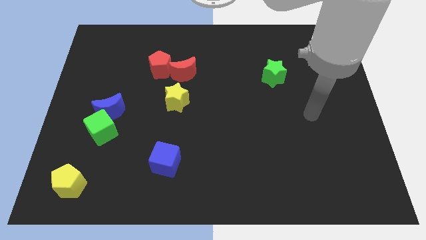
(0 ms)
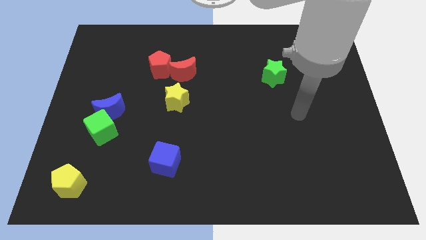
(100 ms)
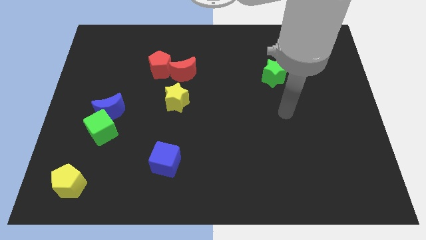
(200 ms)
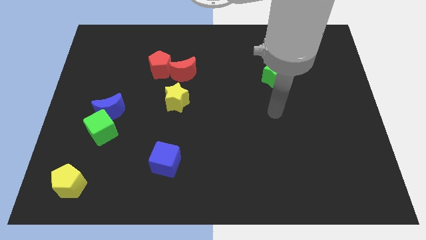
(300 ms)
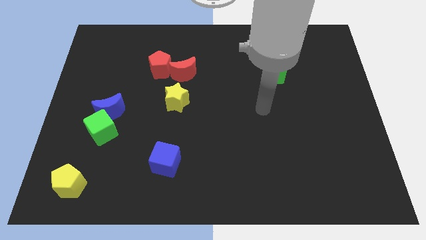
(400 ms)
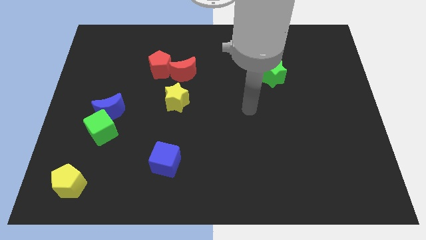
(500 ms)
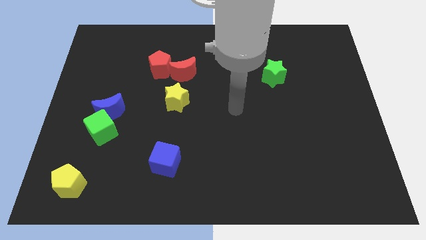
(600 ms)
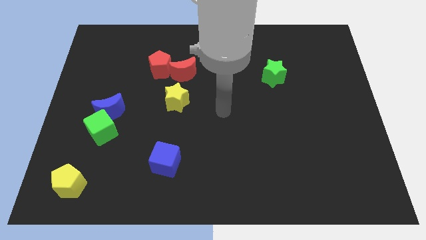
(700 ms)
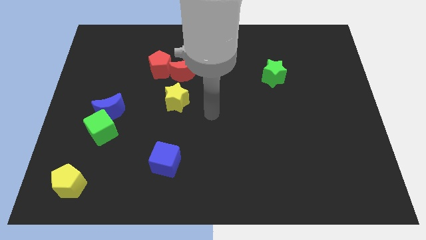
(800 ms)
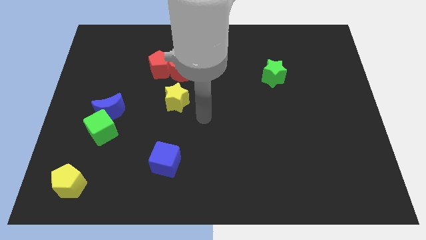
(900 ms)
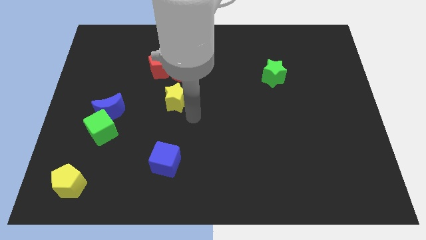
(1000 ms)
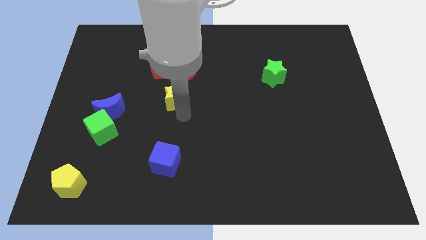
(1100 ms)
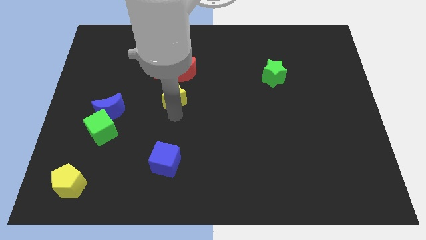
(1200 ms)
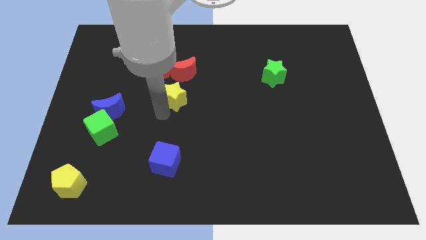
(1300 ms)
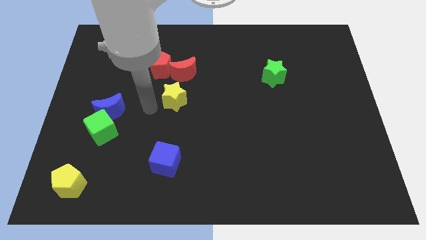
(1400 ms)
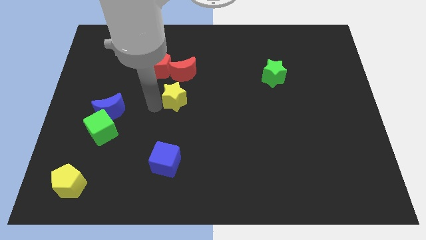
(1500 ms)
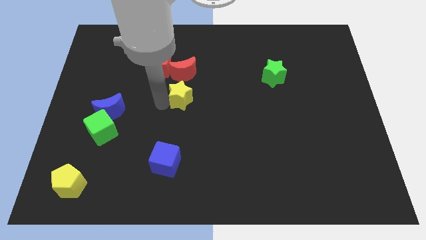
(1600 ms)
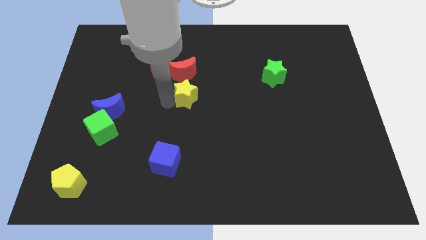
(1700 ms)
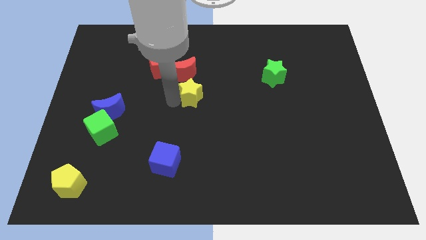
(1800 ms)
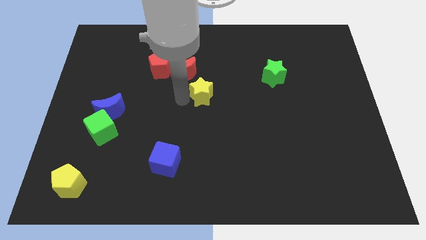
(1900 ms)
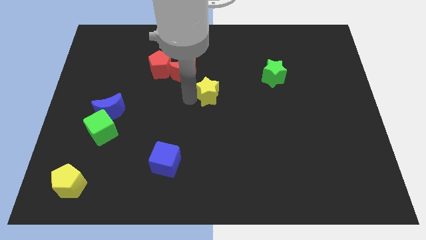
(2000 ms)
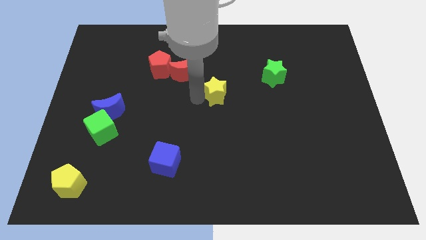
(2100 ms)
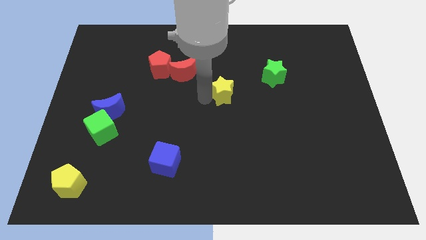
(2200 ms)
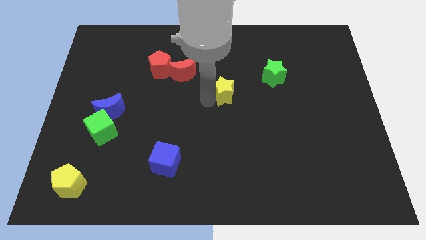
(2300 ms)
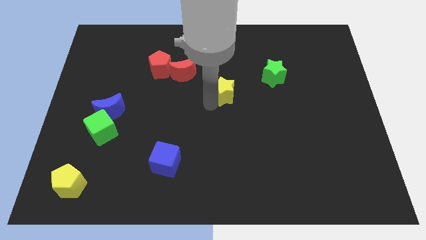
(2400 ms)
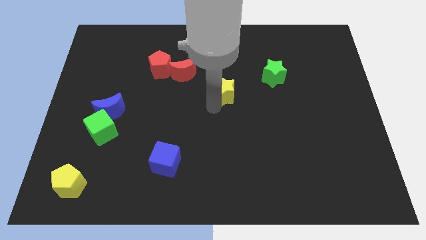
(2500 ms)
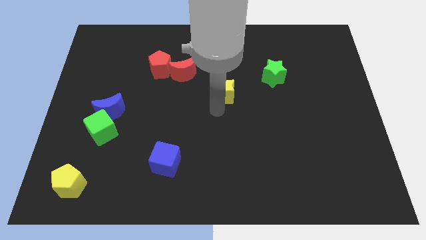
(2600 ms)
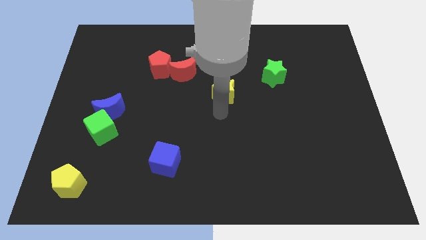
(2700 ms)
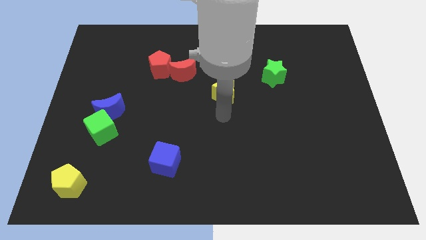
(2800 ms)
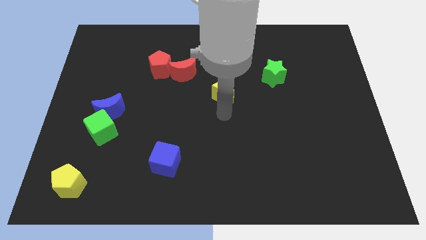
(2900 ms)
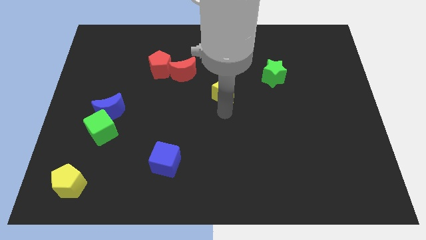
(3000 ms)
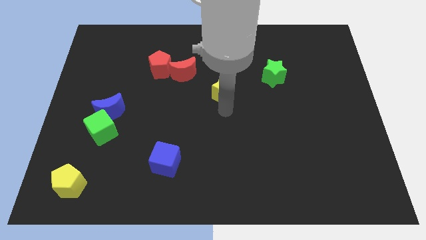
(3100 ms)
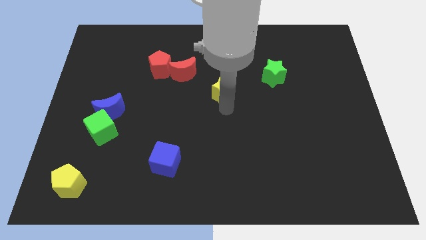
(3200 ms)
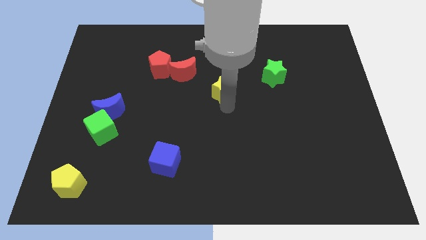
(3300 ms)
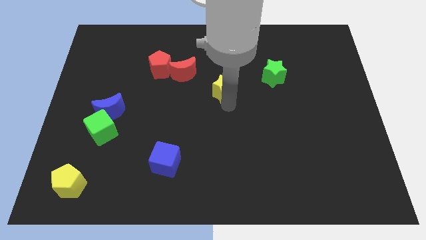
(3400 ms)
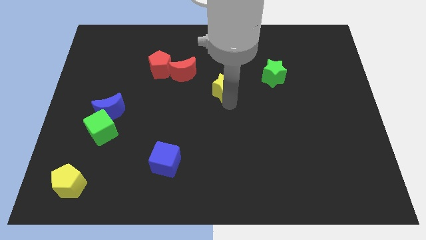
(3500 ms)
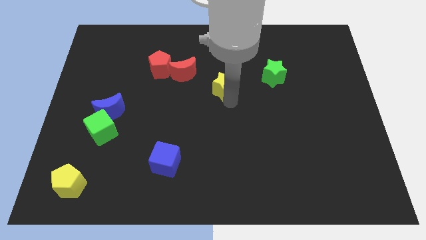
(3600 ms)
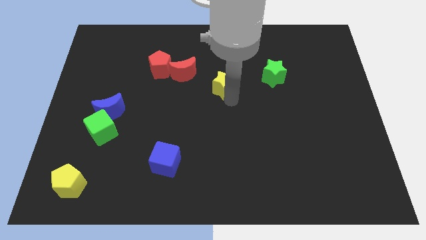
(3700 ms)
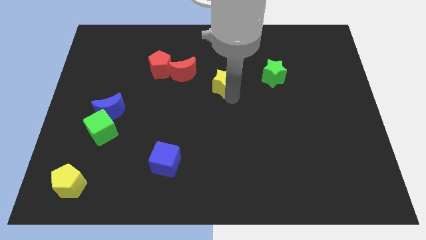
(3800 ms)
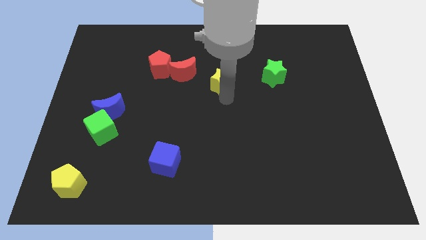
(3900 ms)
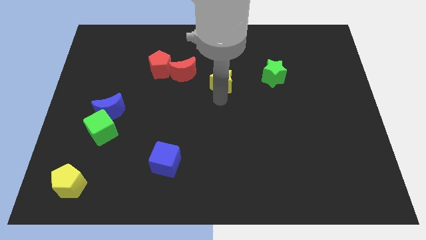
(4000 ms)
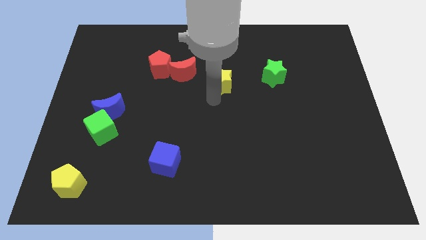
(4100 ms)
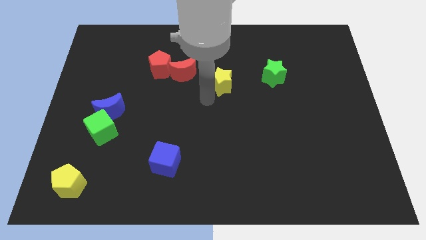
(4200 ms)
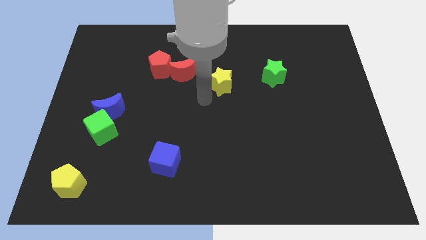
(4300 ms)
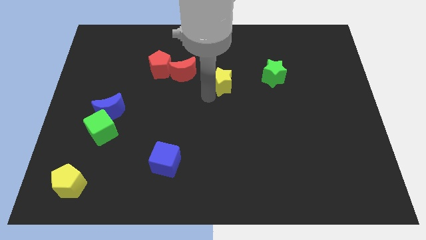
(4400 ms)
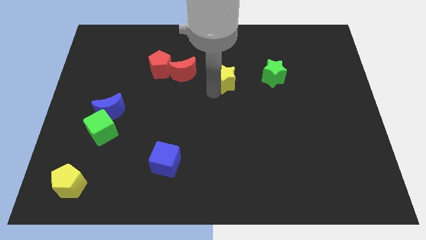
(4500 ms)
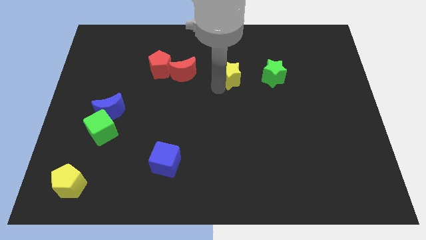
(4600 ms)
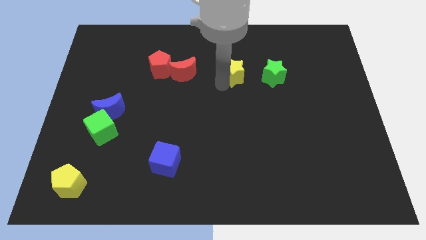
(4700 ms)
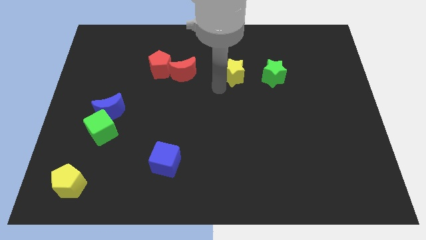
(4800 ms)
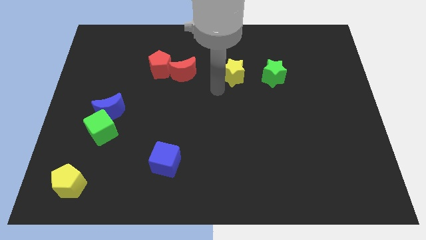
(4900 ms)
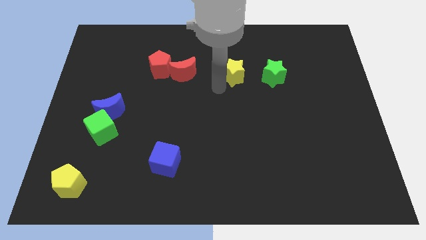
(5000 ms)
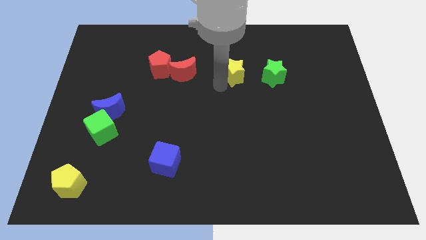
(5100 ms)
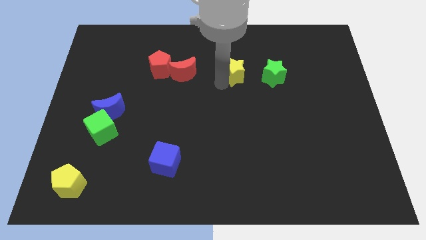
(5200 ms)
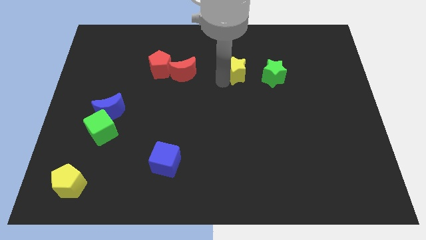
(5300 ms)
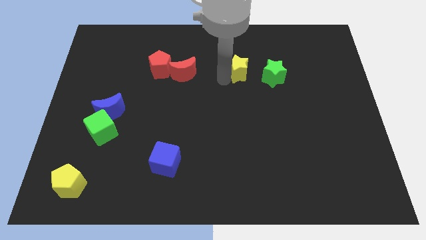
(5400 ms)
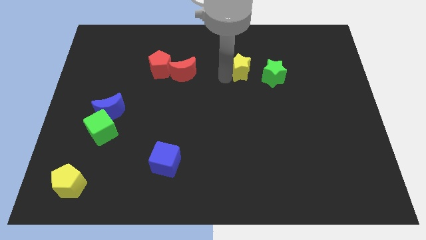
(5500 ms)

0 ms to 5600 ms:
put the yellow star to the top left side of the green star
